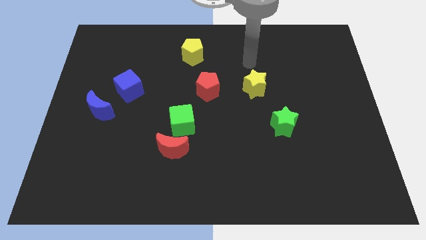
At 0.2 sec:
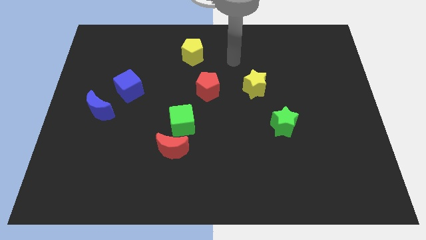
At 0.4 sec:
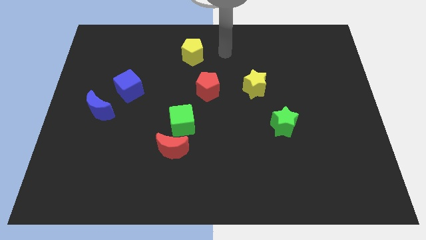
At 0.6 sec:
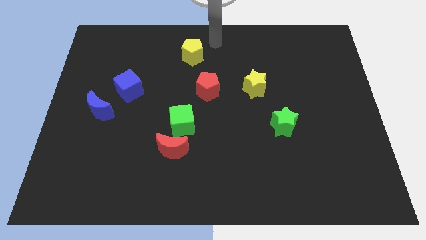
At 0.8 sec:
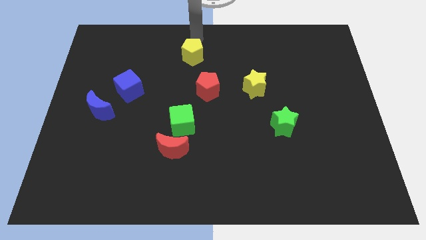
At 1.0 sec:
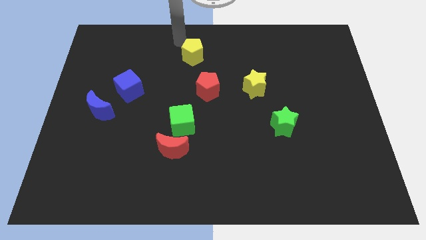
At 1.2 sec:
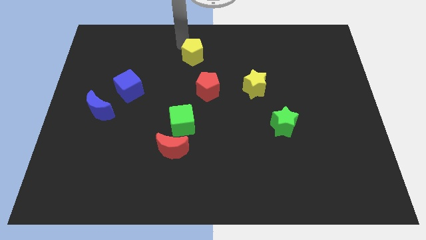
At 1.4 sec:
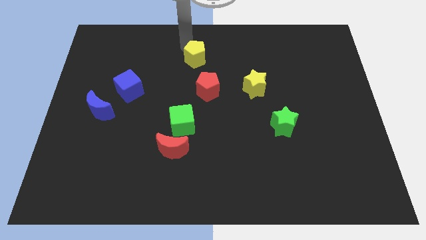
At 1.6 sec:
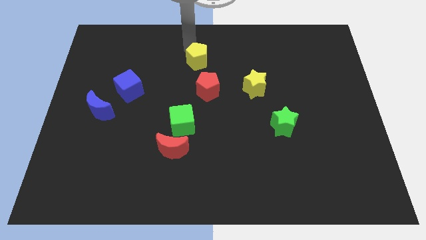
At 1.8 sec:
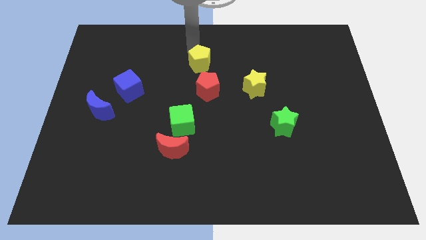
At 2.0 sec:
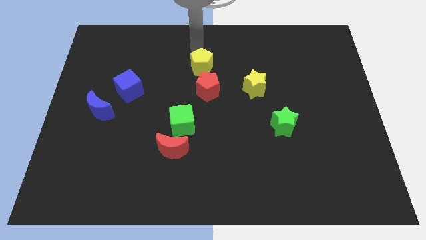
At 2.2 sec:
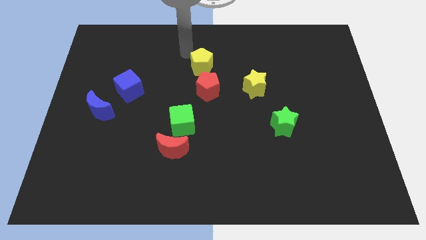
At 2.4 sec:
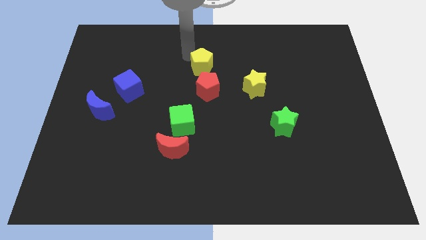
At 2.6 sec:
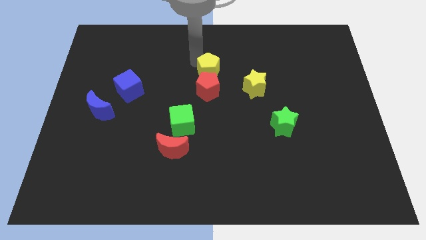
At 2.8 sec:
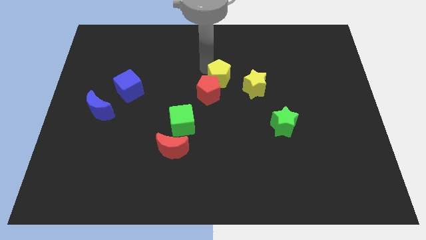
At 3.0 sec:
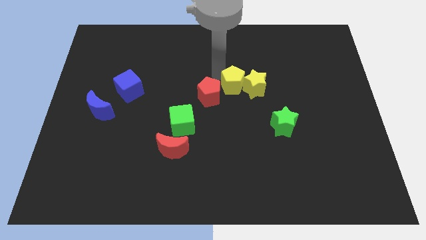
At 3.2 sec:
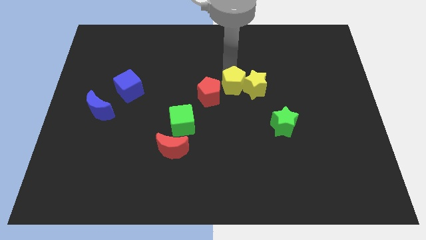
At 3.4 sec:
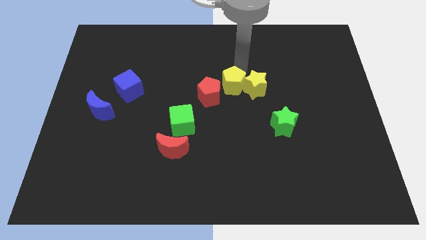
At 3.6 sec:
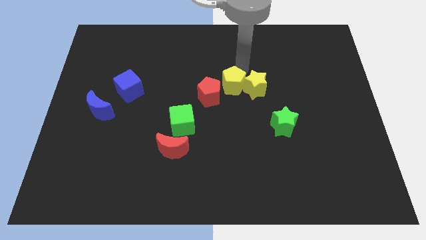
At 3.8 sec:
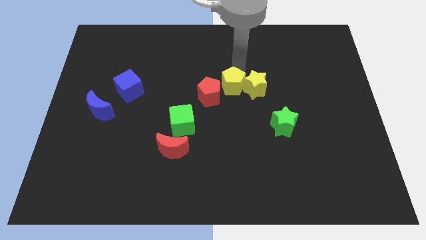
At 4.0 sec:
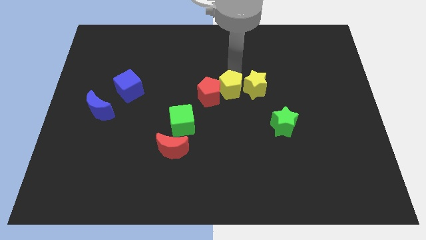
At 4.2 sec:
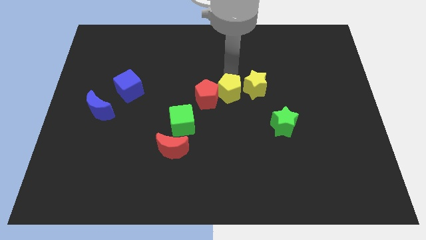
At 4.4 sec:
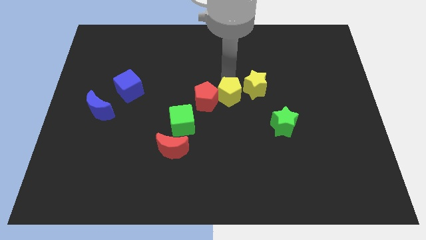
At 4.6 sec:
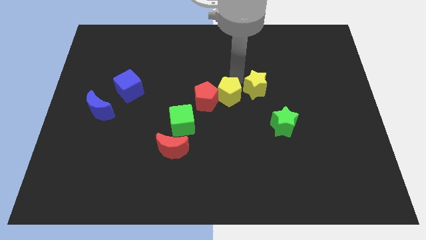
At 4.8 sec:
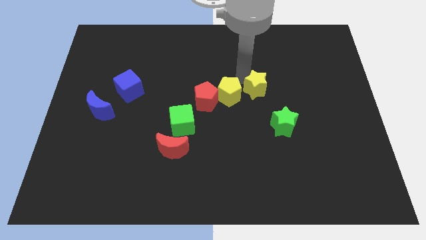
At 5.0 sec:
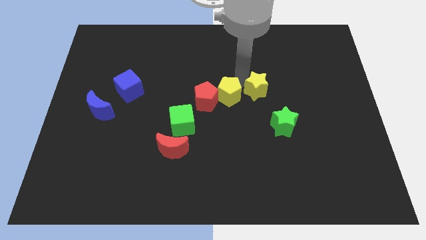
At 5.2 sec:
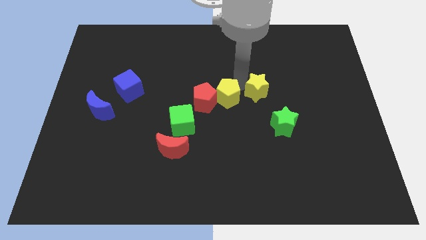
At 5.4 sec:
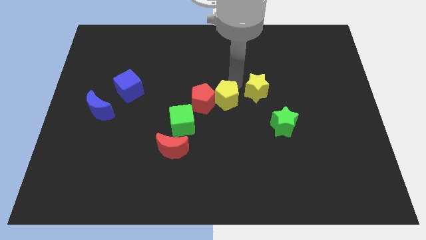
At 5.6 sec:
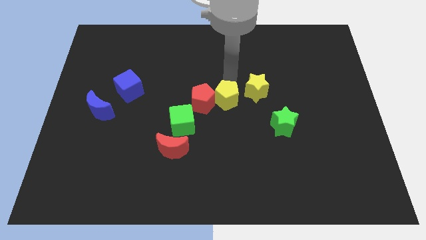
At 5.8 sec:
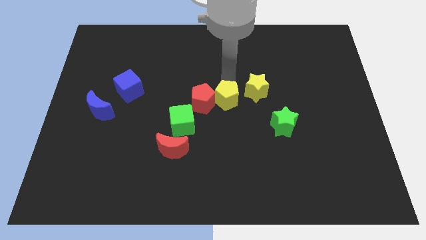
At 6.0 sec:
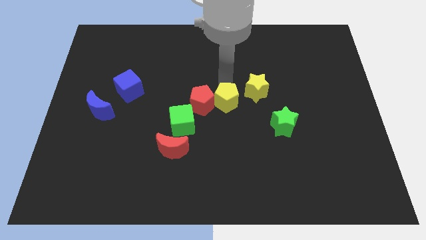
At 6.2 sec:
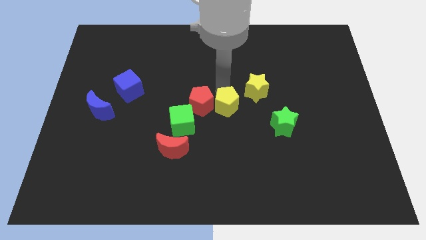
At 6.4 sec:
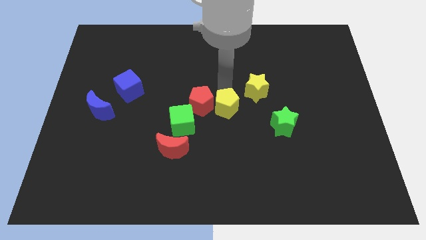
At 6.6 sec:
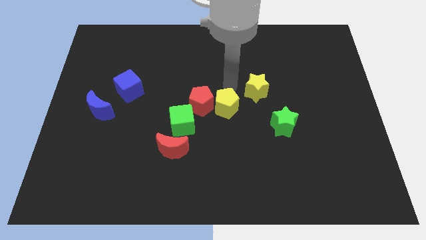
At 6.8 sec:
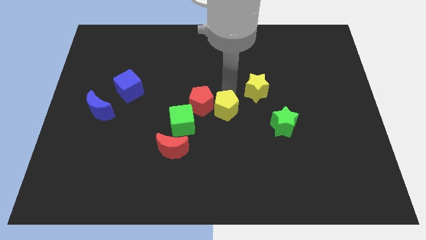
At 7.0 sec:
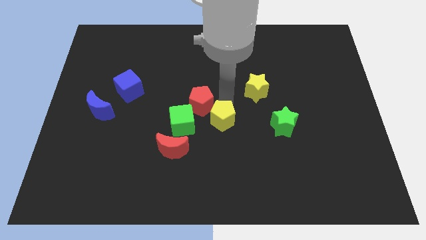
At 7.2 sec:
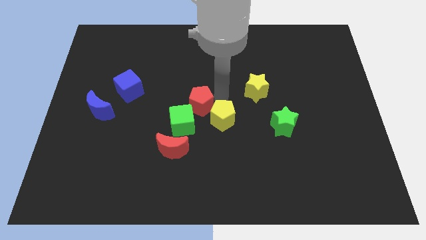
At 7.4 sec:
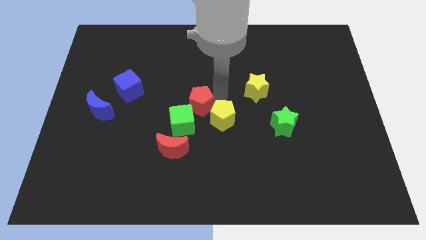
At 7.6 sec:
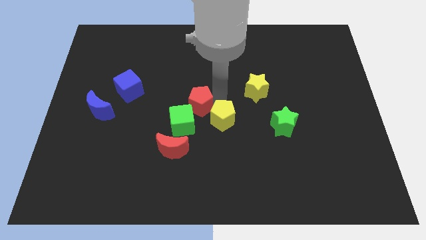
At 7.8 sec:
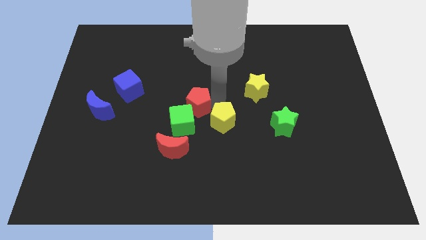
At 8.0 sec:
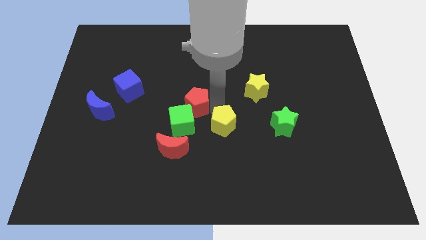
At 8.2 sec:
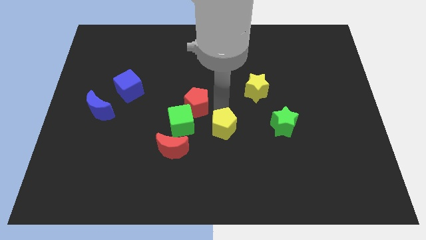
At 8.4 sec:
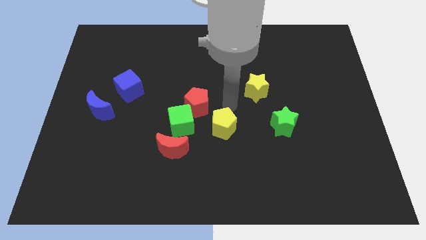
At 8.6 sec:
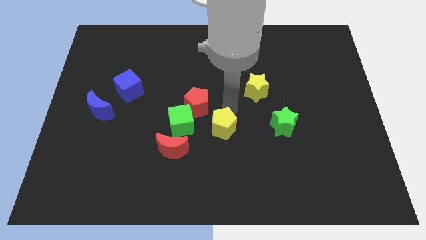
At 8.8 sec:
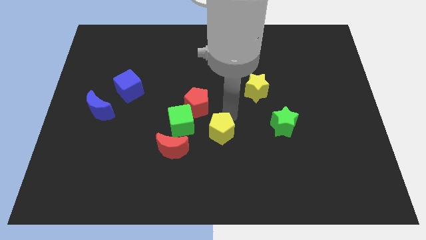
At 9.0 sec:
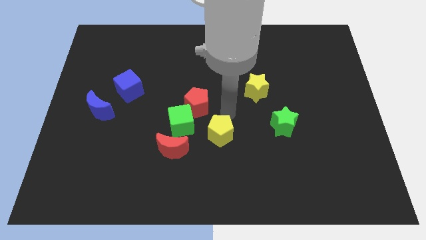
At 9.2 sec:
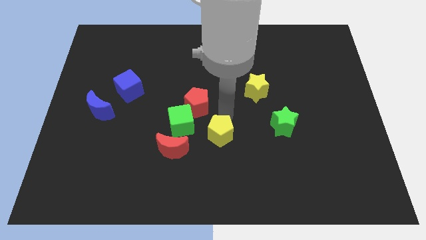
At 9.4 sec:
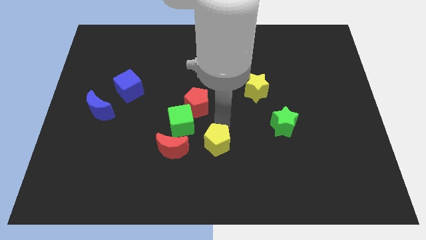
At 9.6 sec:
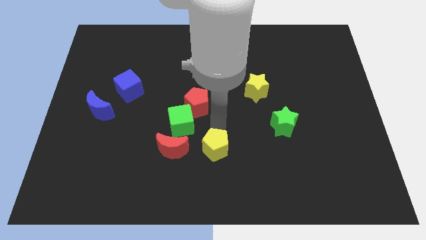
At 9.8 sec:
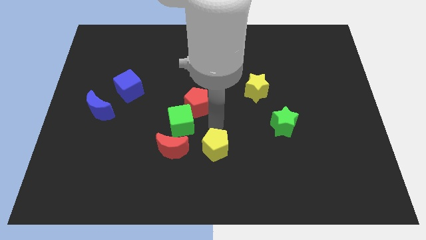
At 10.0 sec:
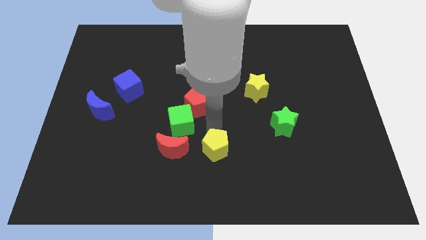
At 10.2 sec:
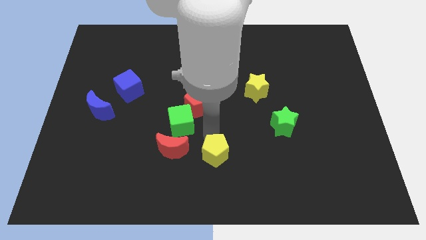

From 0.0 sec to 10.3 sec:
move the yellow pentagon to the bottom side

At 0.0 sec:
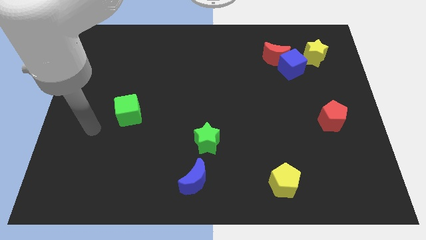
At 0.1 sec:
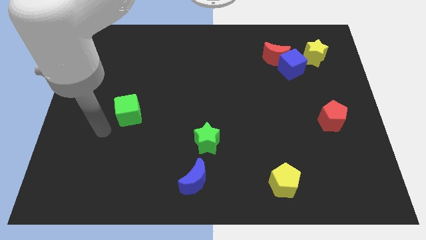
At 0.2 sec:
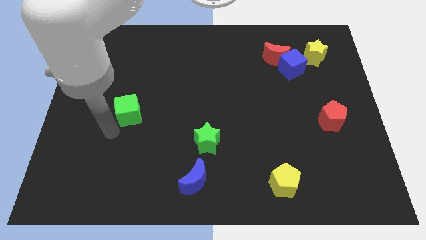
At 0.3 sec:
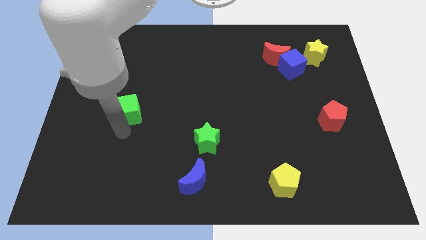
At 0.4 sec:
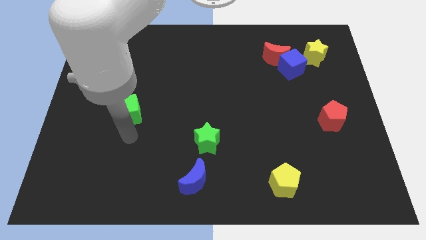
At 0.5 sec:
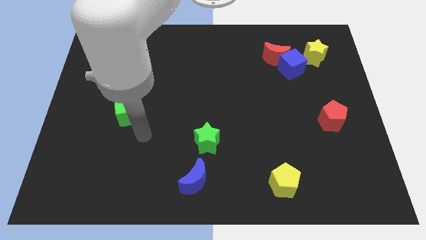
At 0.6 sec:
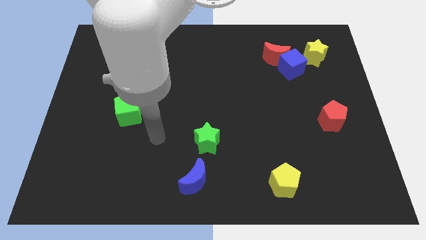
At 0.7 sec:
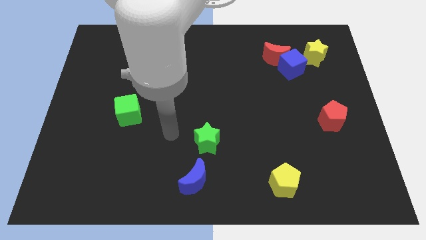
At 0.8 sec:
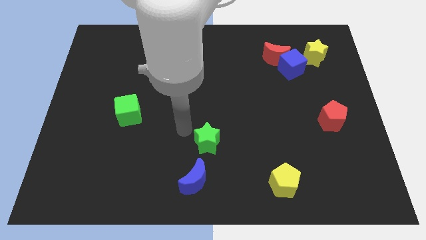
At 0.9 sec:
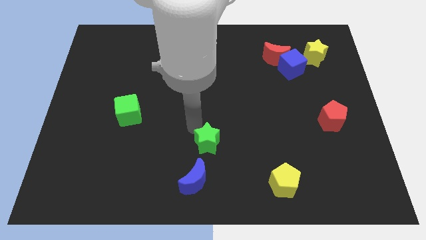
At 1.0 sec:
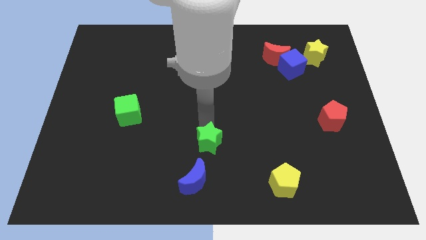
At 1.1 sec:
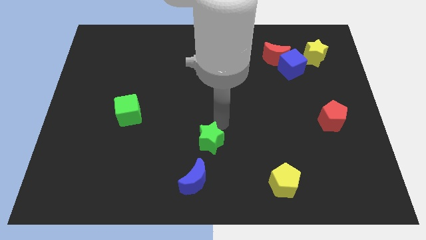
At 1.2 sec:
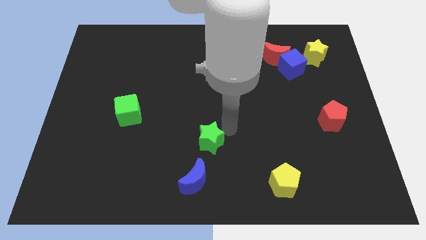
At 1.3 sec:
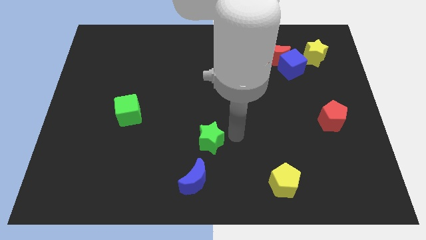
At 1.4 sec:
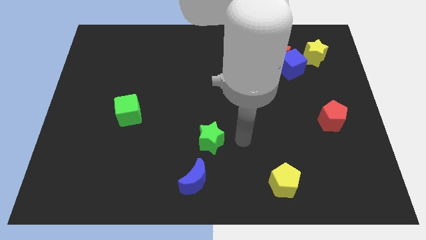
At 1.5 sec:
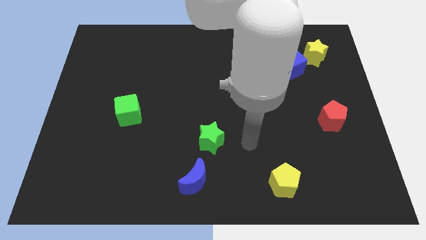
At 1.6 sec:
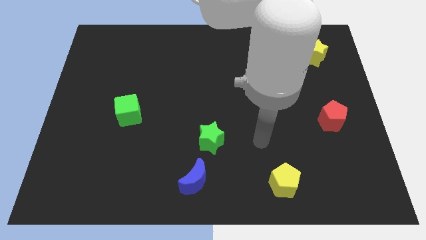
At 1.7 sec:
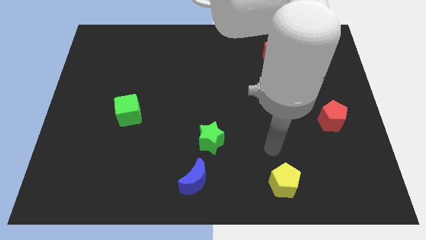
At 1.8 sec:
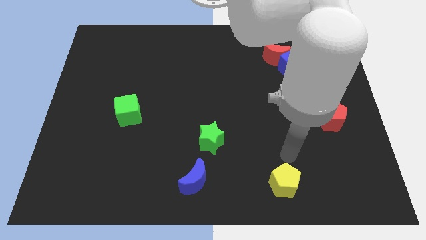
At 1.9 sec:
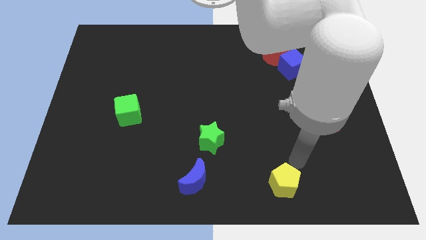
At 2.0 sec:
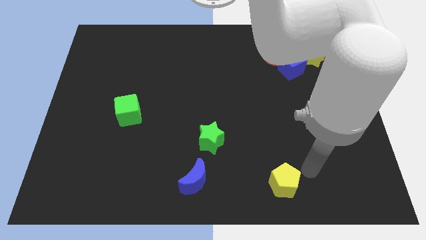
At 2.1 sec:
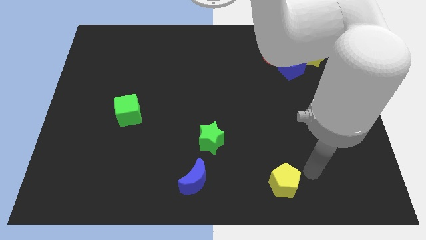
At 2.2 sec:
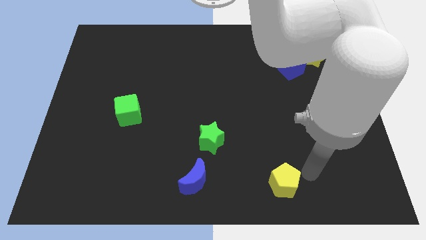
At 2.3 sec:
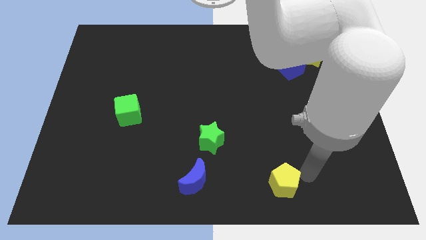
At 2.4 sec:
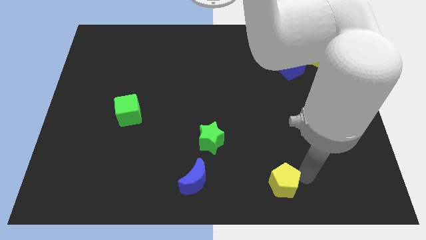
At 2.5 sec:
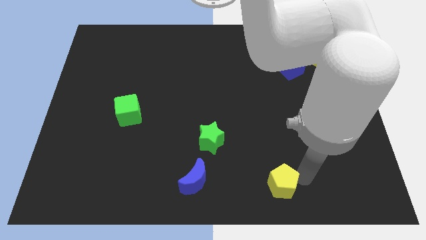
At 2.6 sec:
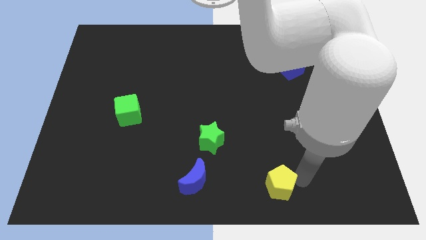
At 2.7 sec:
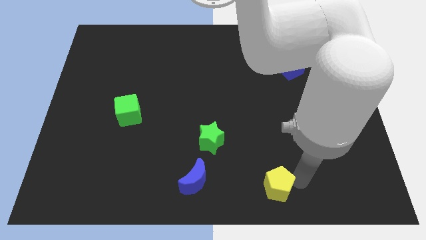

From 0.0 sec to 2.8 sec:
slide the yellow pentagon to the bottom
